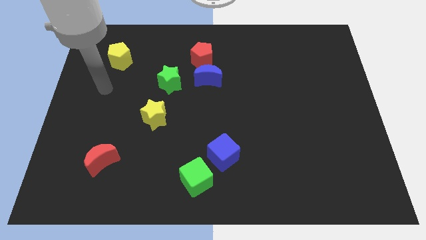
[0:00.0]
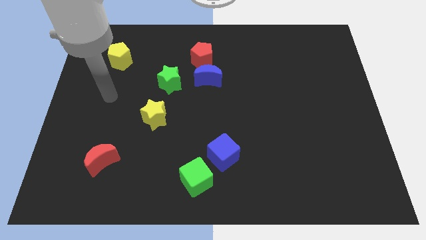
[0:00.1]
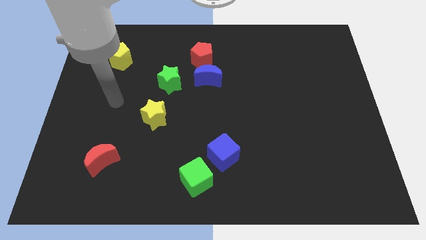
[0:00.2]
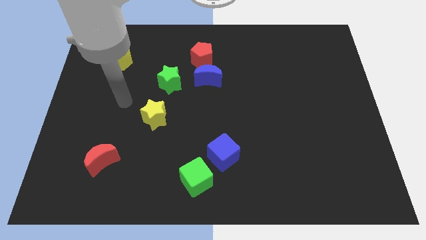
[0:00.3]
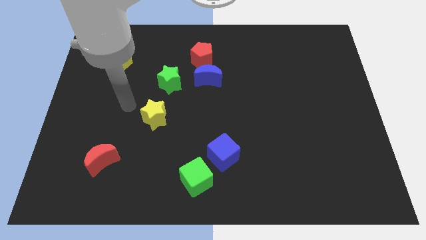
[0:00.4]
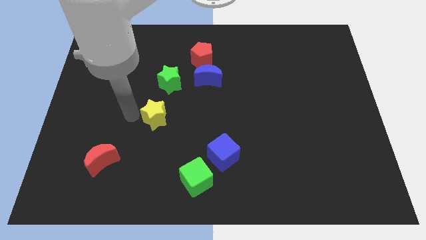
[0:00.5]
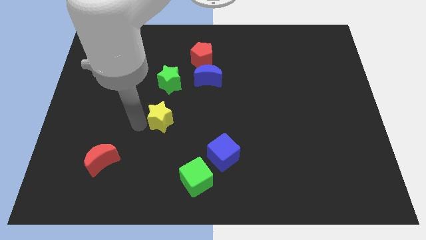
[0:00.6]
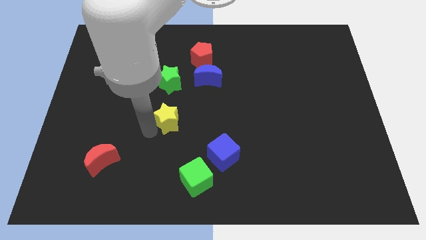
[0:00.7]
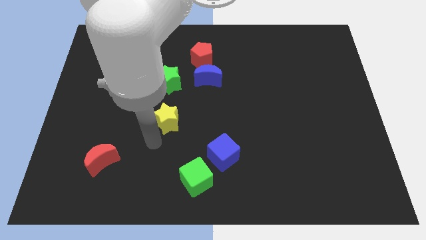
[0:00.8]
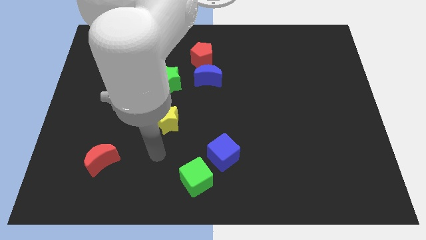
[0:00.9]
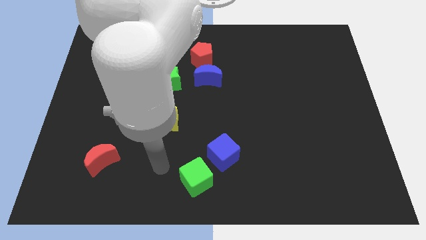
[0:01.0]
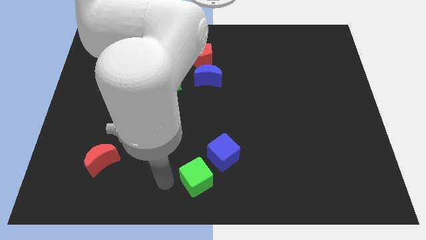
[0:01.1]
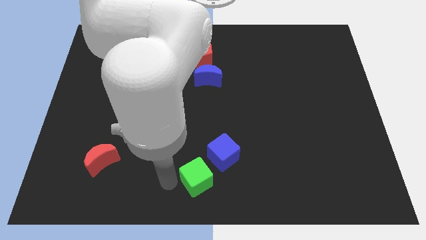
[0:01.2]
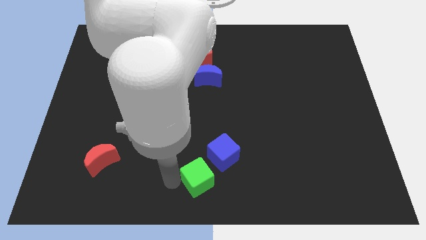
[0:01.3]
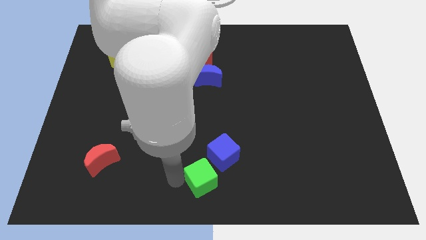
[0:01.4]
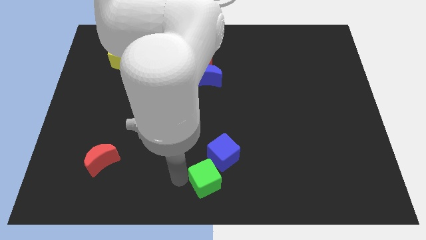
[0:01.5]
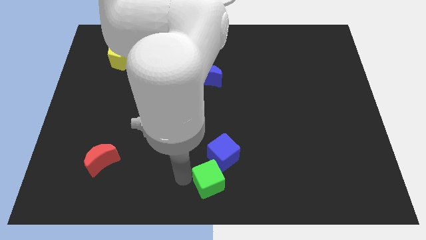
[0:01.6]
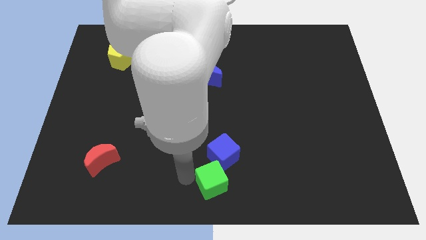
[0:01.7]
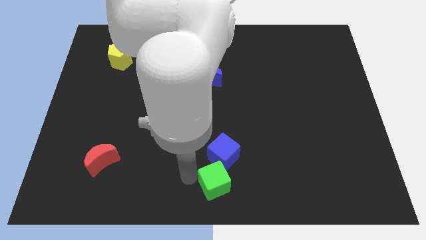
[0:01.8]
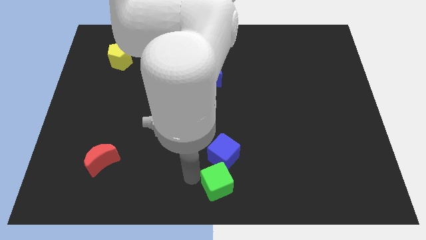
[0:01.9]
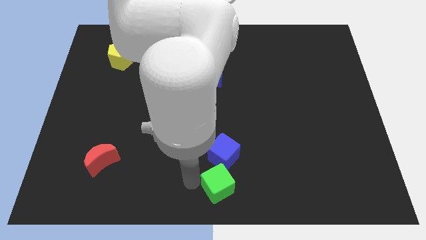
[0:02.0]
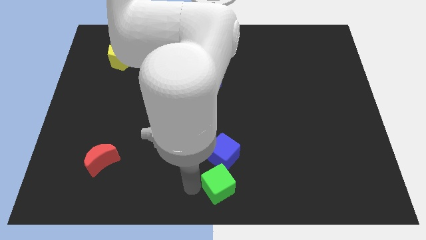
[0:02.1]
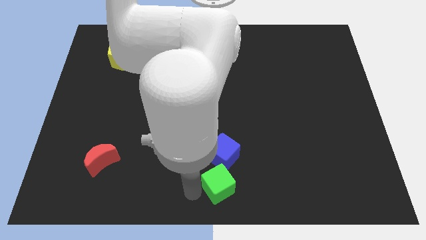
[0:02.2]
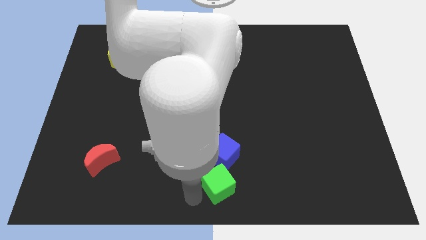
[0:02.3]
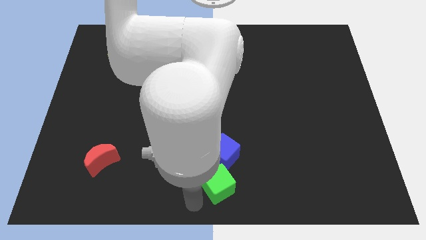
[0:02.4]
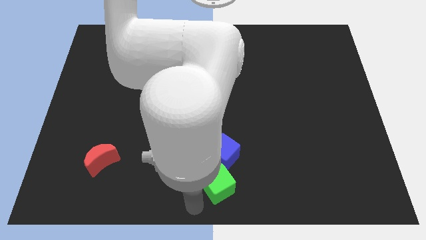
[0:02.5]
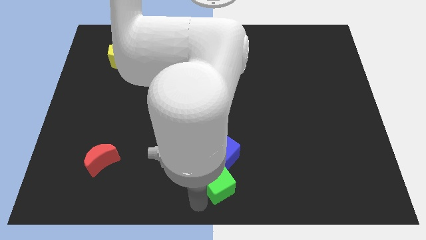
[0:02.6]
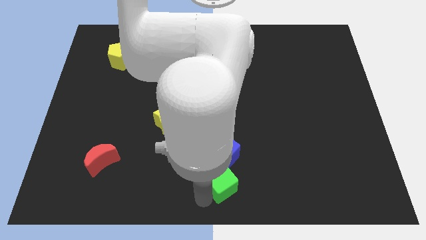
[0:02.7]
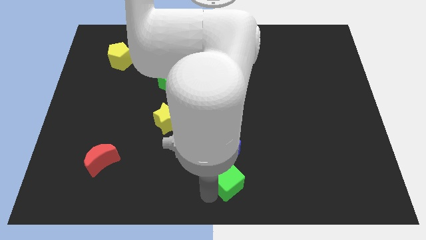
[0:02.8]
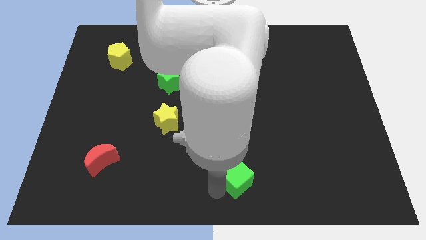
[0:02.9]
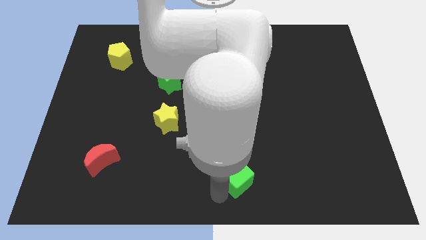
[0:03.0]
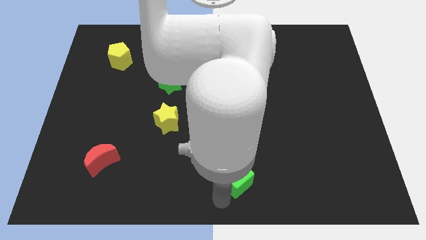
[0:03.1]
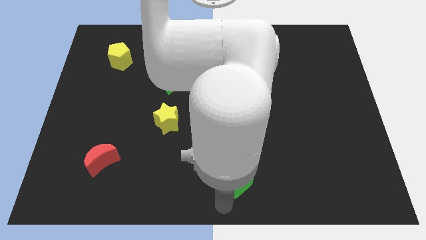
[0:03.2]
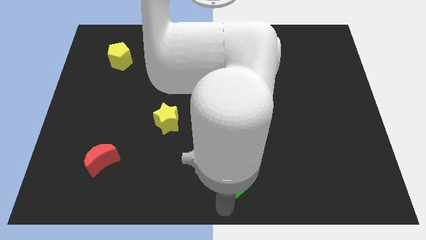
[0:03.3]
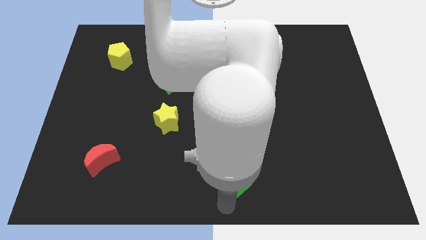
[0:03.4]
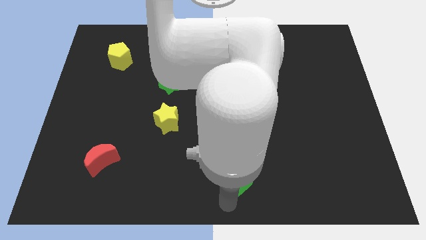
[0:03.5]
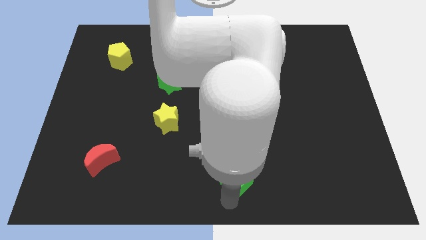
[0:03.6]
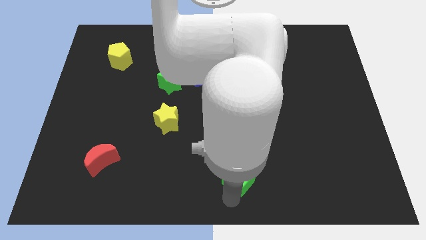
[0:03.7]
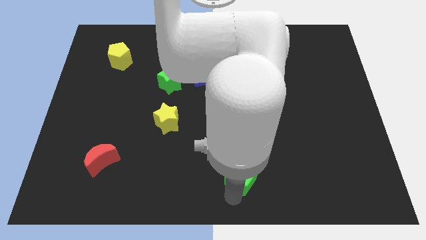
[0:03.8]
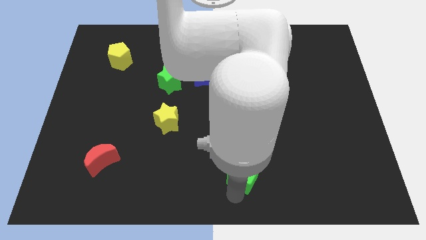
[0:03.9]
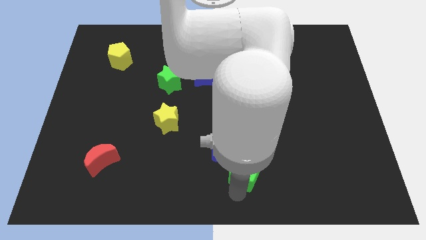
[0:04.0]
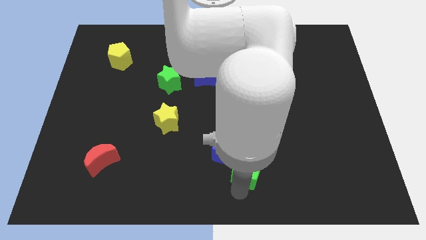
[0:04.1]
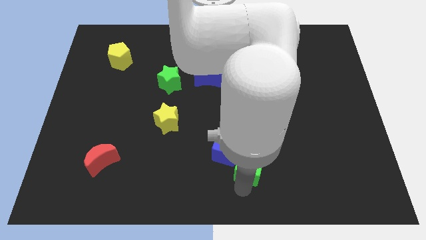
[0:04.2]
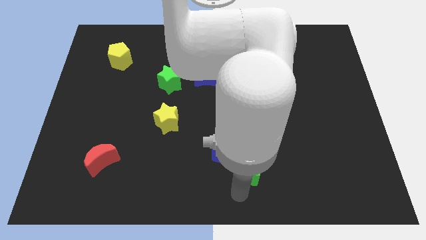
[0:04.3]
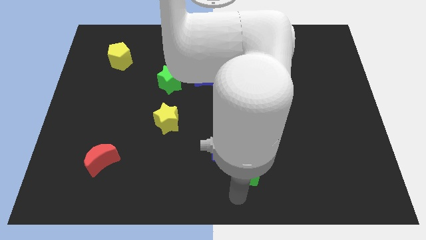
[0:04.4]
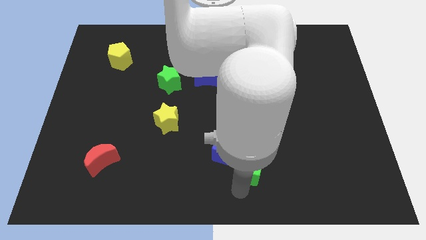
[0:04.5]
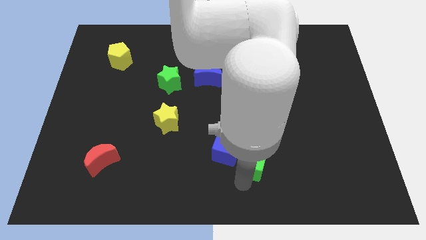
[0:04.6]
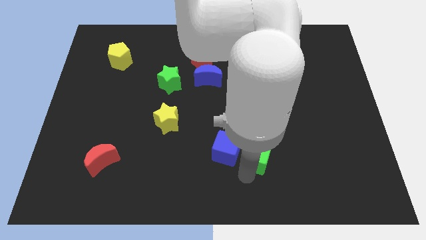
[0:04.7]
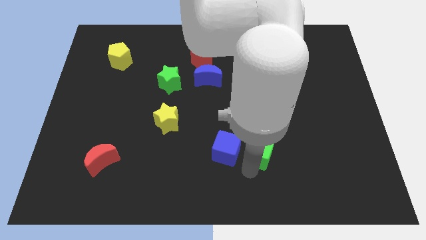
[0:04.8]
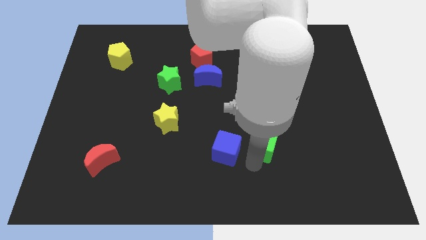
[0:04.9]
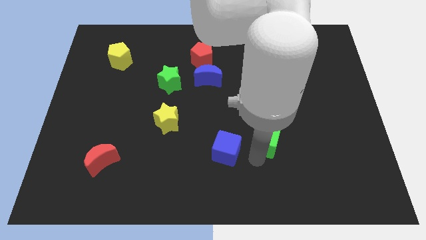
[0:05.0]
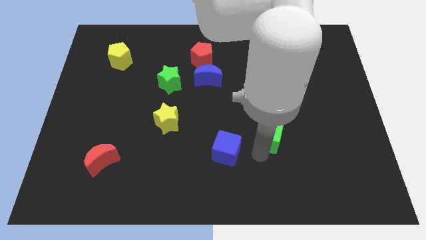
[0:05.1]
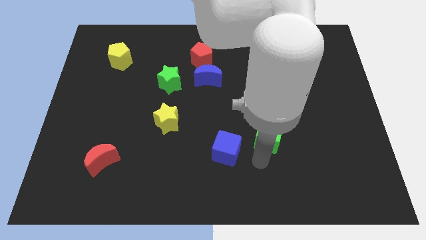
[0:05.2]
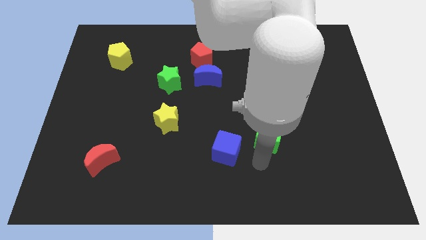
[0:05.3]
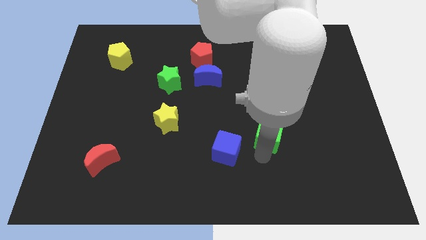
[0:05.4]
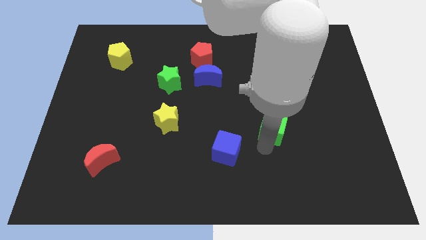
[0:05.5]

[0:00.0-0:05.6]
push the green cube upwards and then to the right

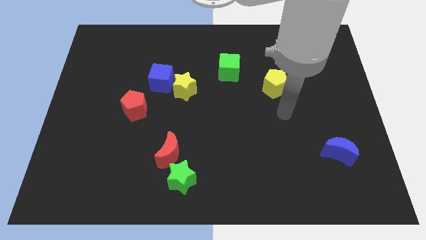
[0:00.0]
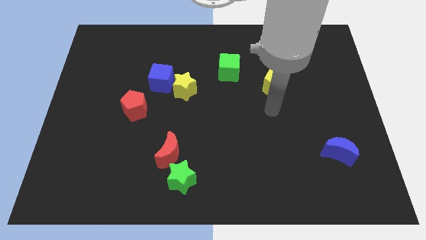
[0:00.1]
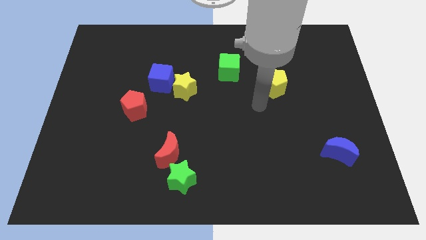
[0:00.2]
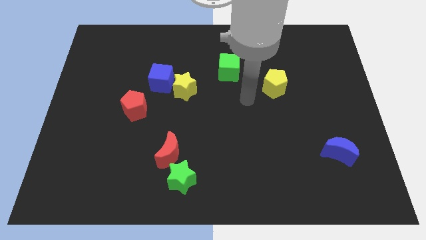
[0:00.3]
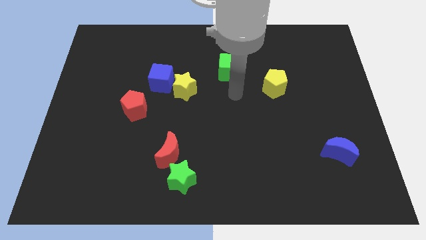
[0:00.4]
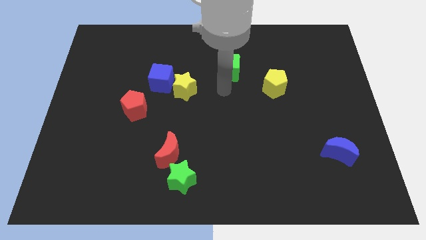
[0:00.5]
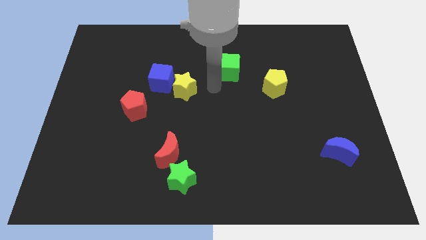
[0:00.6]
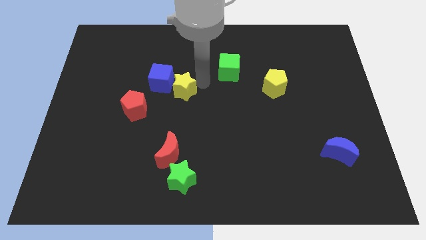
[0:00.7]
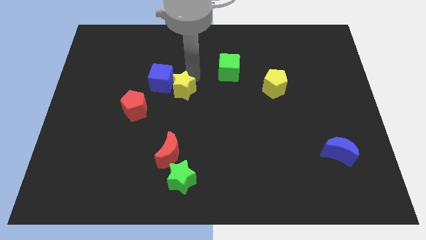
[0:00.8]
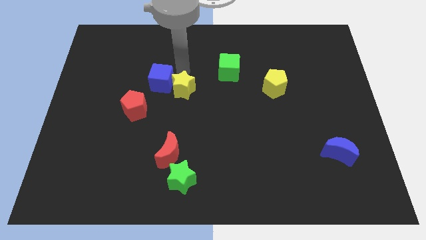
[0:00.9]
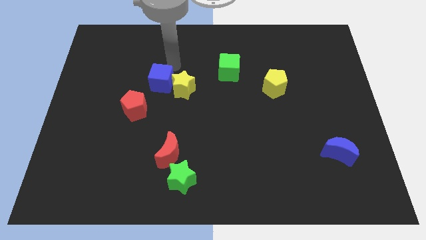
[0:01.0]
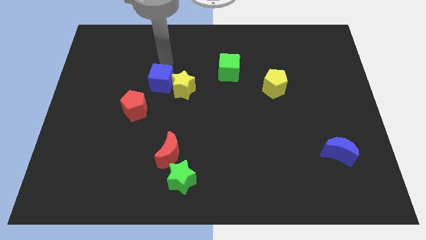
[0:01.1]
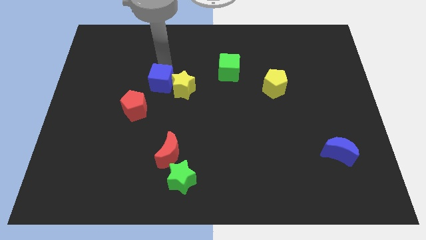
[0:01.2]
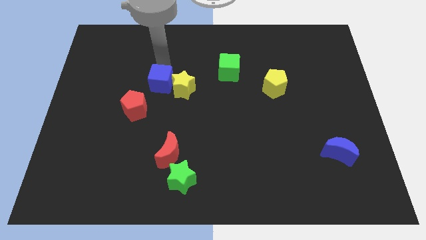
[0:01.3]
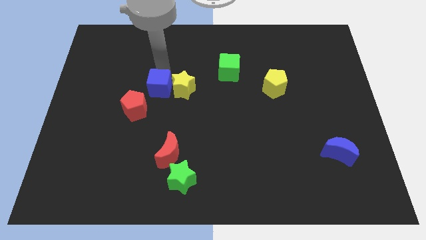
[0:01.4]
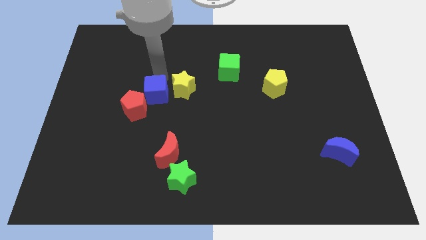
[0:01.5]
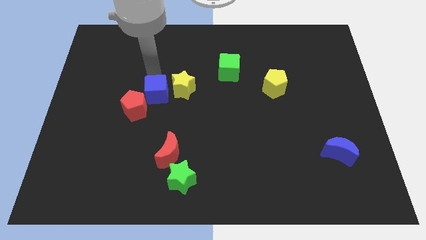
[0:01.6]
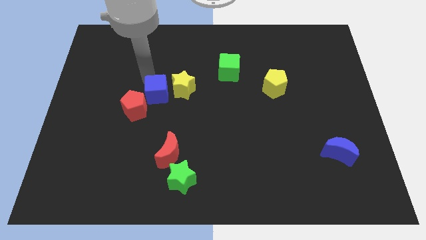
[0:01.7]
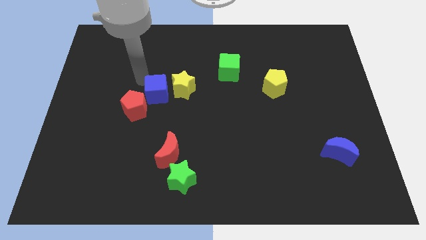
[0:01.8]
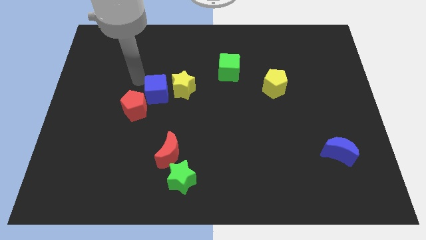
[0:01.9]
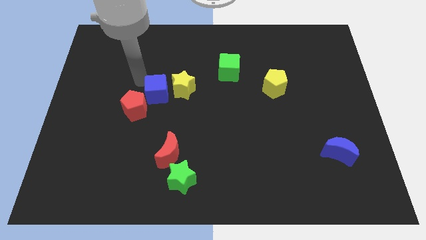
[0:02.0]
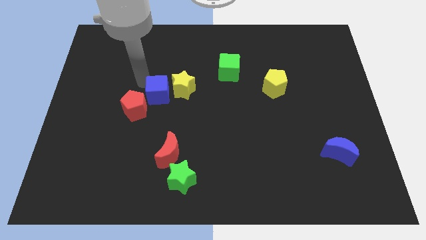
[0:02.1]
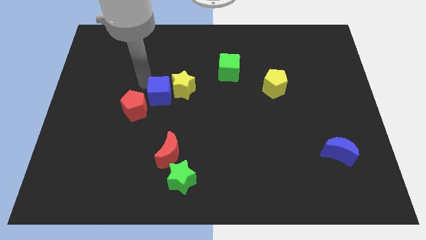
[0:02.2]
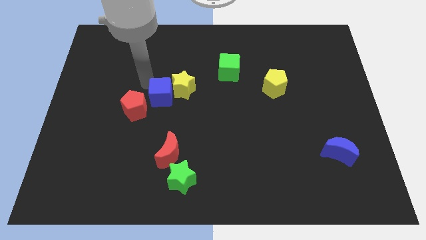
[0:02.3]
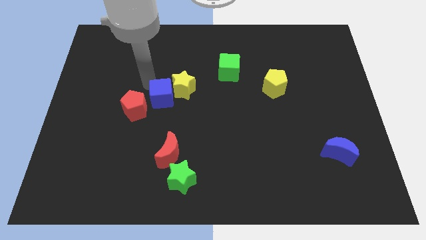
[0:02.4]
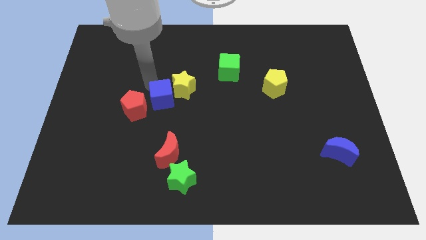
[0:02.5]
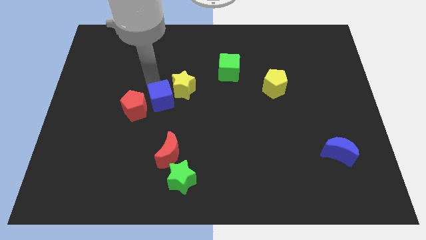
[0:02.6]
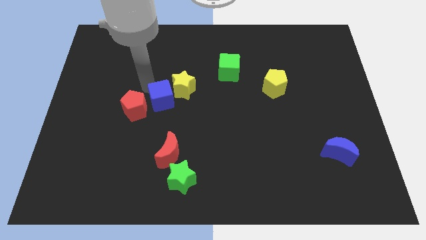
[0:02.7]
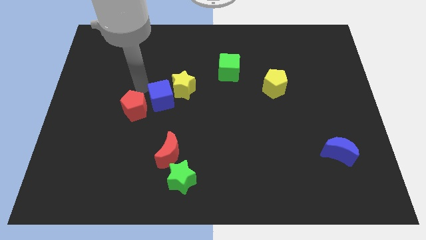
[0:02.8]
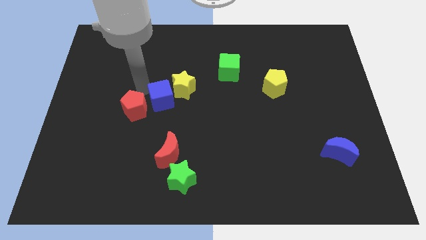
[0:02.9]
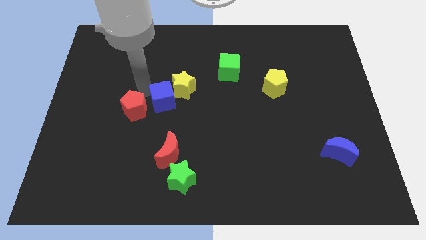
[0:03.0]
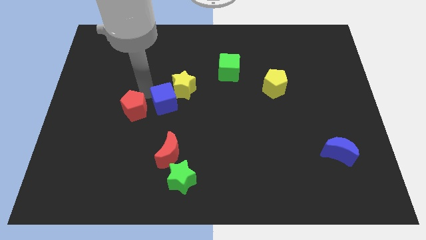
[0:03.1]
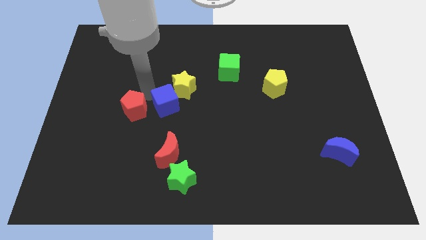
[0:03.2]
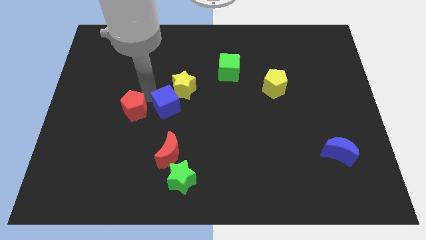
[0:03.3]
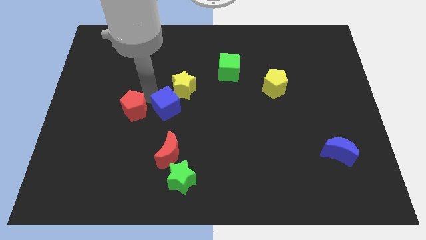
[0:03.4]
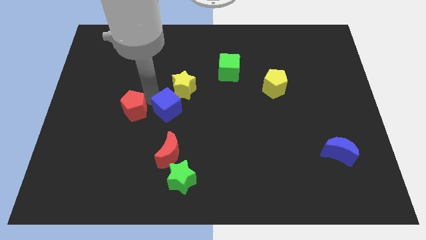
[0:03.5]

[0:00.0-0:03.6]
move the blue cube down and then to the right a little
